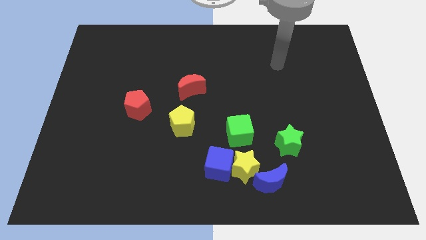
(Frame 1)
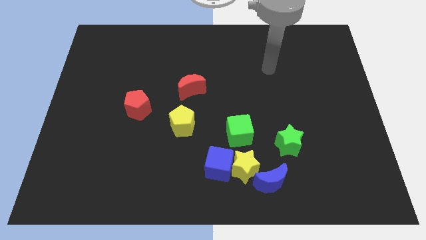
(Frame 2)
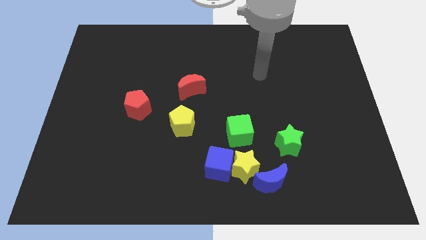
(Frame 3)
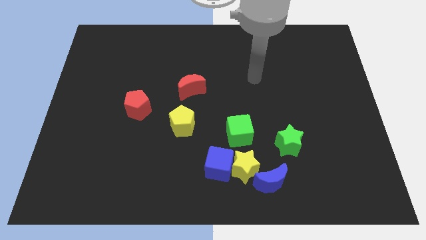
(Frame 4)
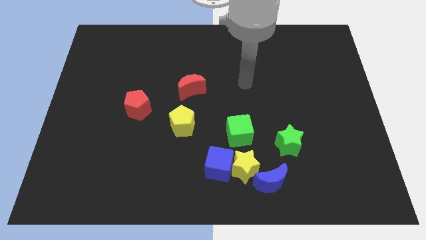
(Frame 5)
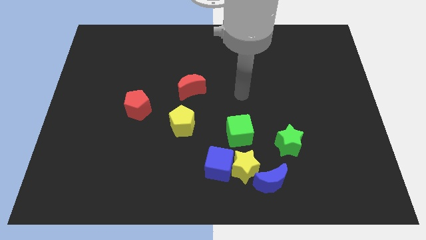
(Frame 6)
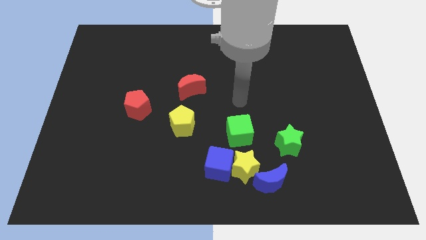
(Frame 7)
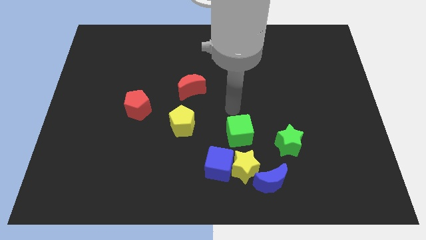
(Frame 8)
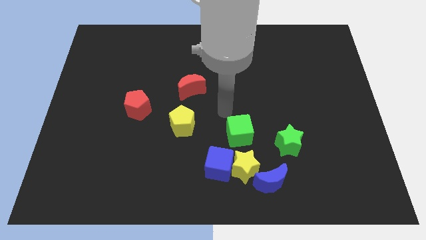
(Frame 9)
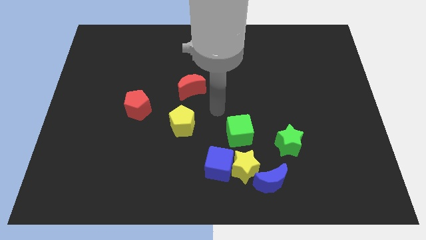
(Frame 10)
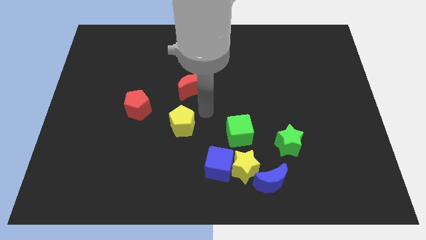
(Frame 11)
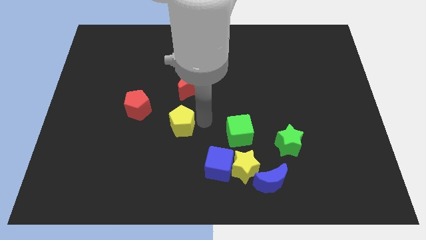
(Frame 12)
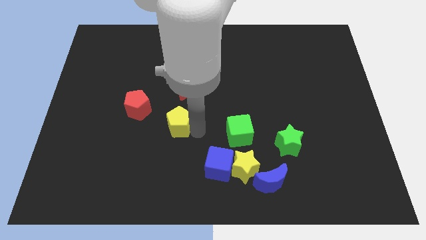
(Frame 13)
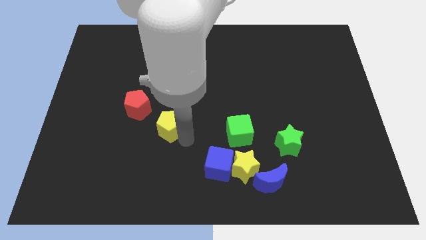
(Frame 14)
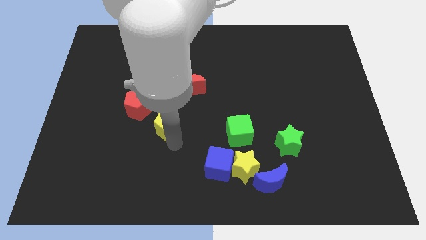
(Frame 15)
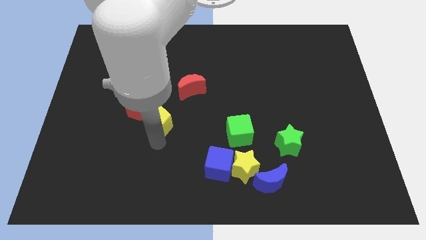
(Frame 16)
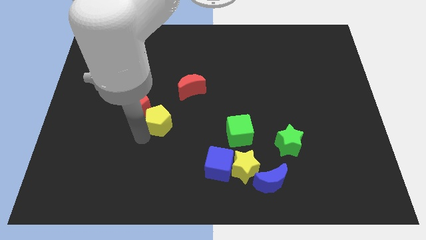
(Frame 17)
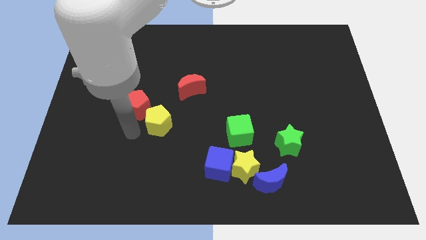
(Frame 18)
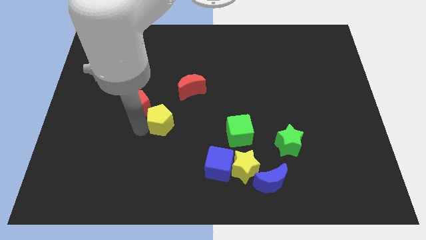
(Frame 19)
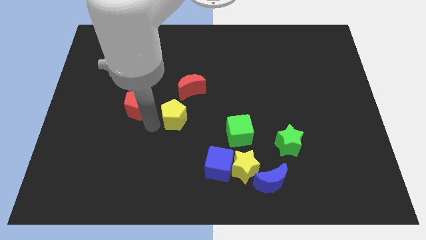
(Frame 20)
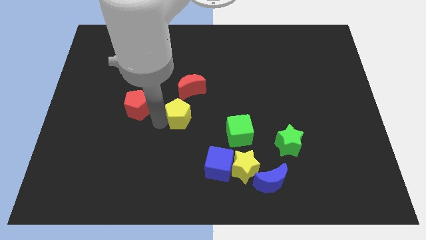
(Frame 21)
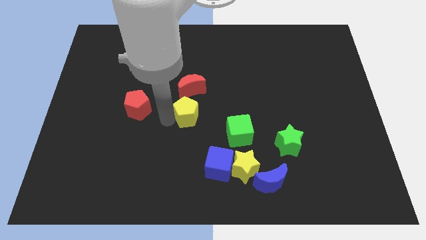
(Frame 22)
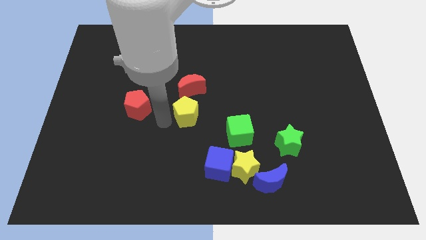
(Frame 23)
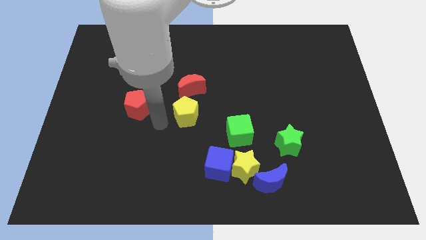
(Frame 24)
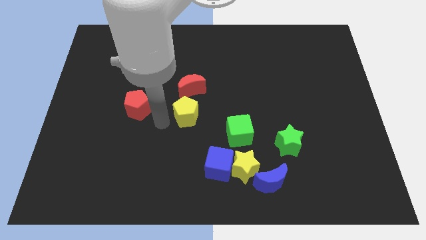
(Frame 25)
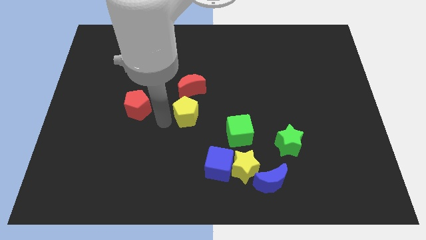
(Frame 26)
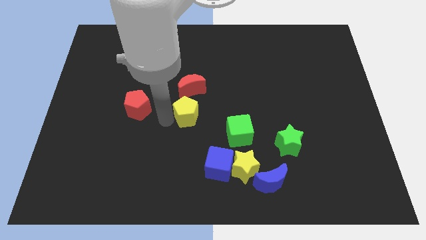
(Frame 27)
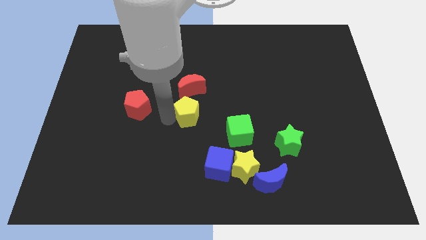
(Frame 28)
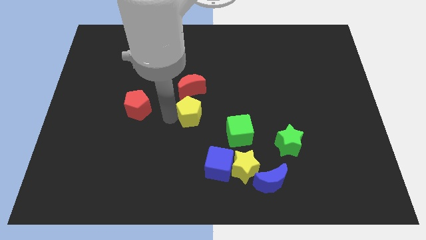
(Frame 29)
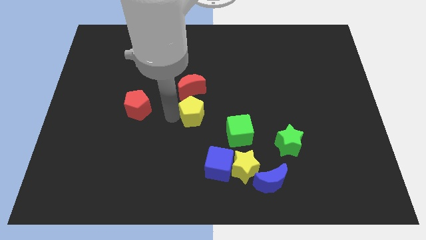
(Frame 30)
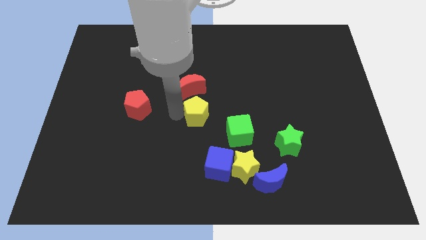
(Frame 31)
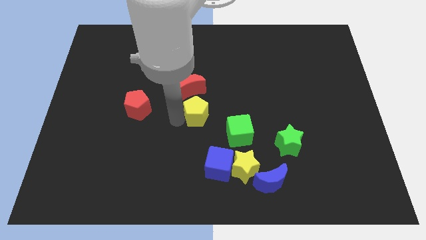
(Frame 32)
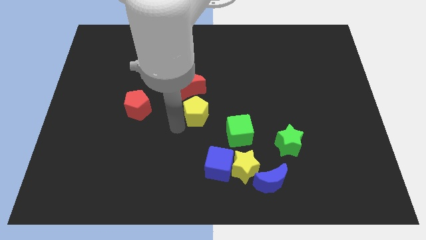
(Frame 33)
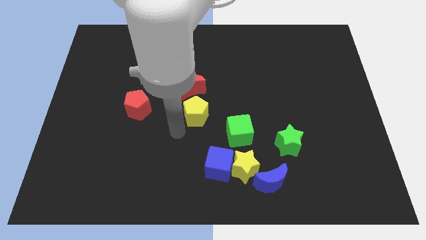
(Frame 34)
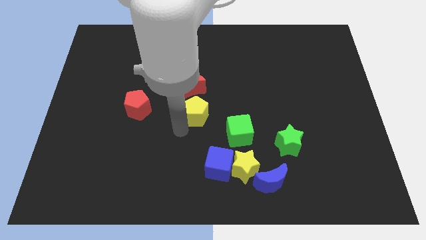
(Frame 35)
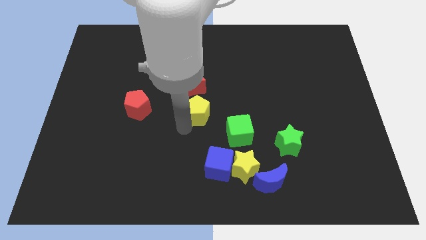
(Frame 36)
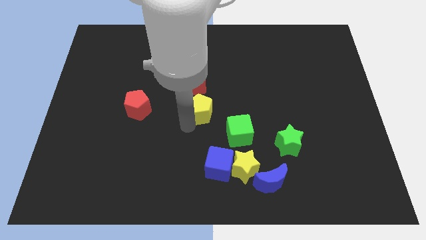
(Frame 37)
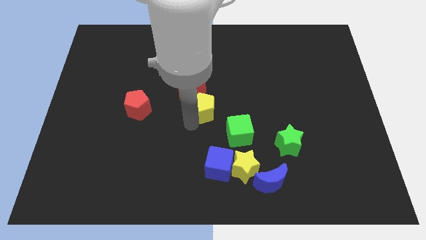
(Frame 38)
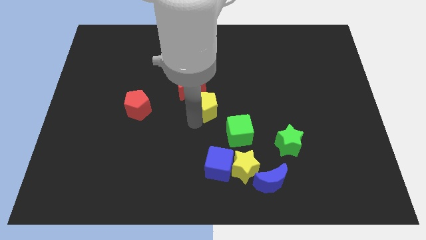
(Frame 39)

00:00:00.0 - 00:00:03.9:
slide the yellow pentagon a little bit up and right diagonally

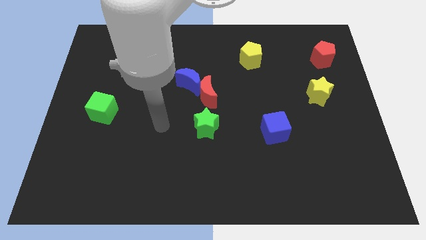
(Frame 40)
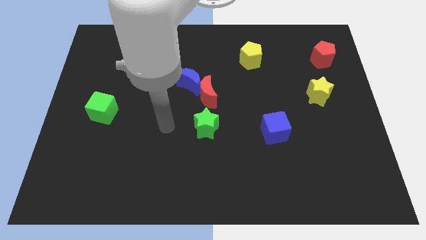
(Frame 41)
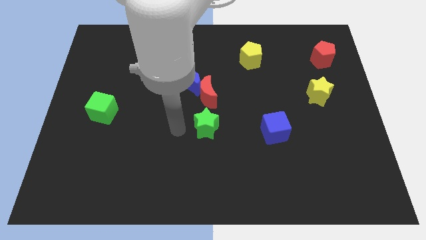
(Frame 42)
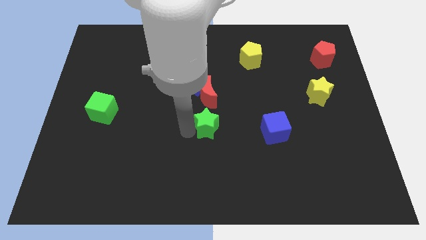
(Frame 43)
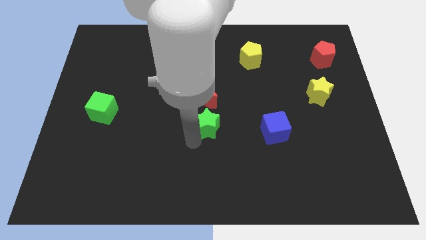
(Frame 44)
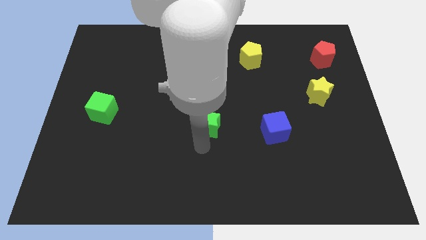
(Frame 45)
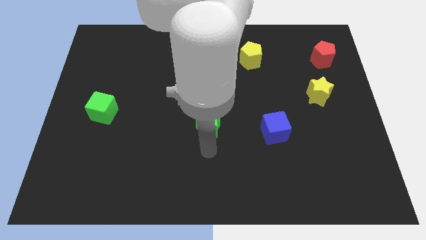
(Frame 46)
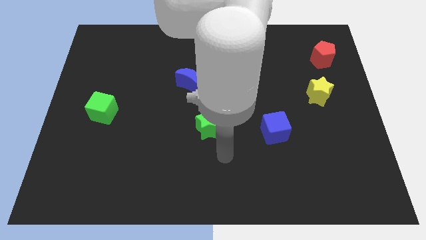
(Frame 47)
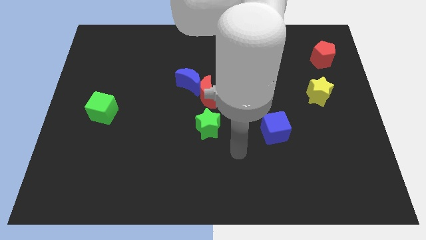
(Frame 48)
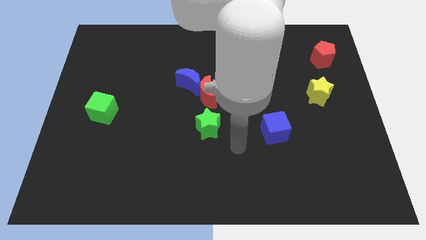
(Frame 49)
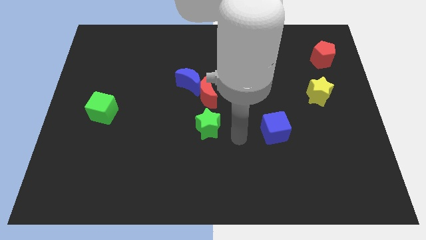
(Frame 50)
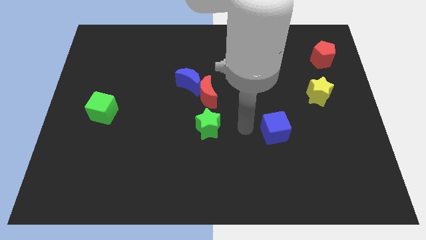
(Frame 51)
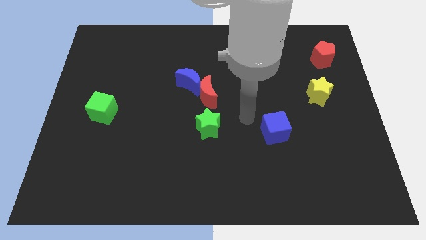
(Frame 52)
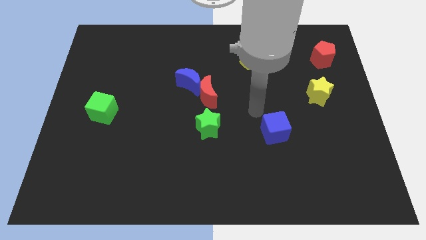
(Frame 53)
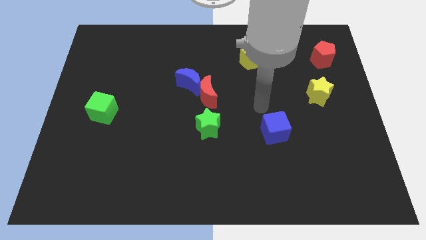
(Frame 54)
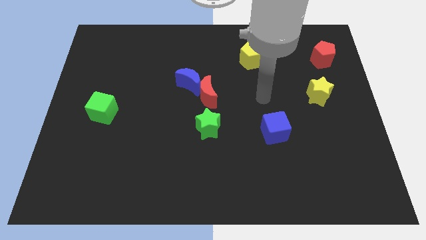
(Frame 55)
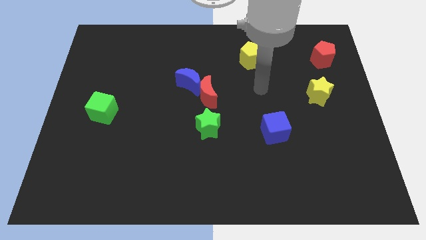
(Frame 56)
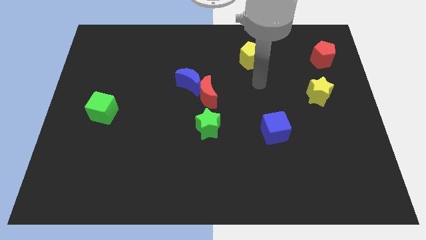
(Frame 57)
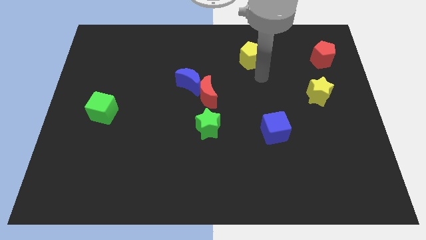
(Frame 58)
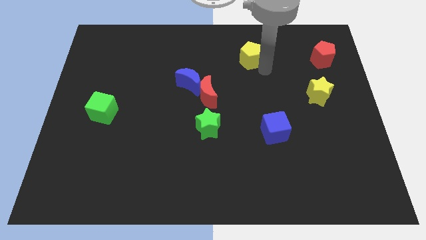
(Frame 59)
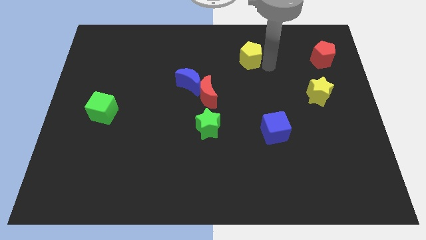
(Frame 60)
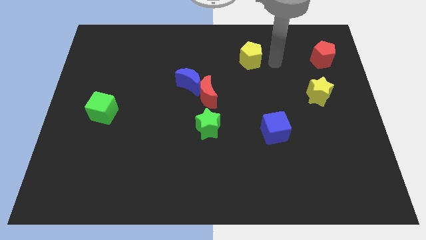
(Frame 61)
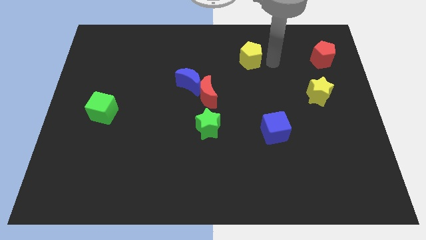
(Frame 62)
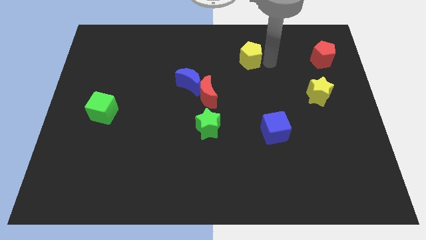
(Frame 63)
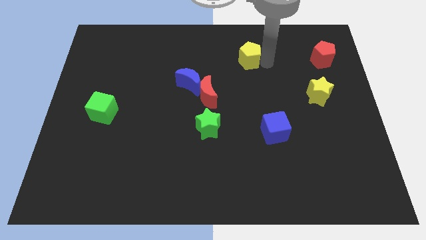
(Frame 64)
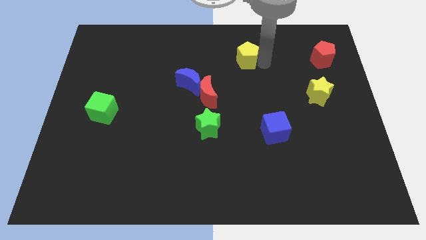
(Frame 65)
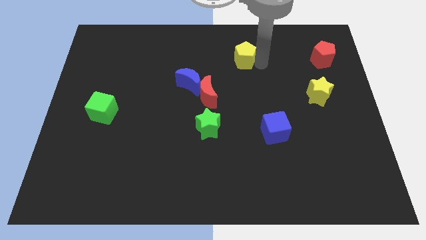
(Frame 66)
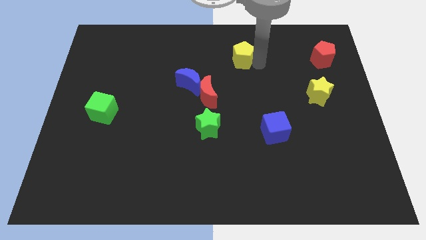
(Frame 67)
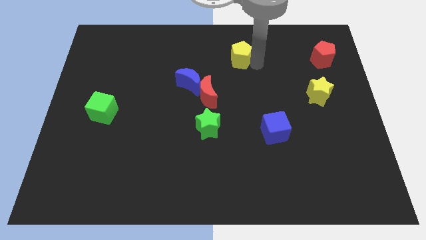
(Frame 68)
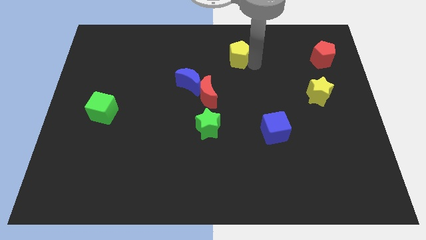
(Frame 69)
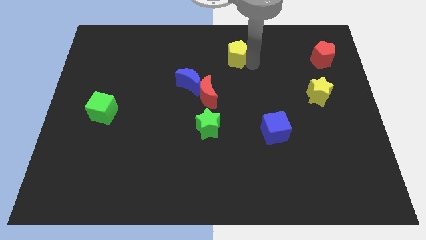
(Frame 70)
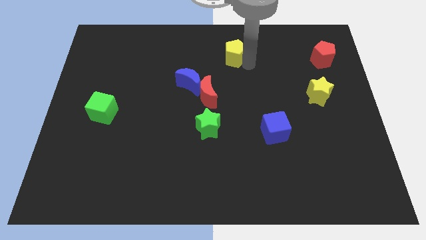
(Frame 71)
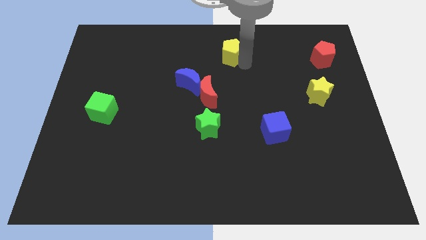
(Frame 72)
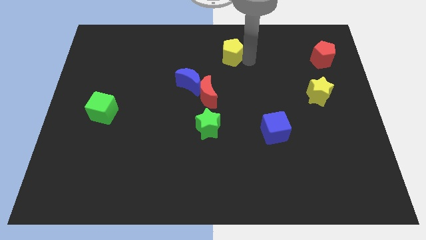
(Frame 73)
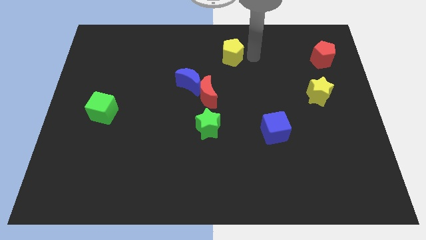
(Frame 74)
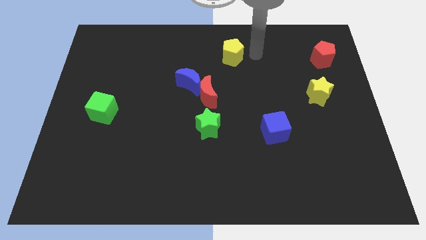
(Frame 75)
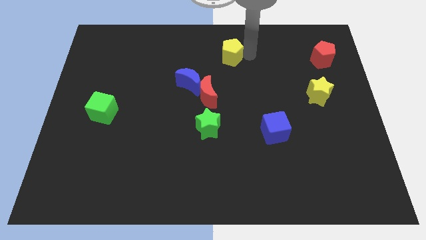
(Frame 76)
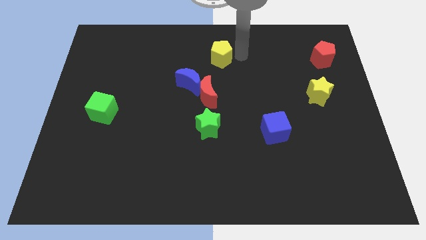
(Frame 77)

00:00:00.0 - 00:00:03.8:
move the yellow pentagon slightly left

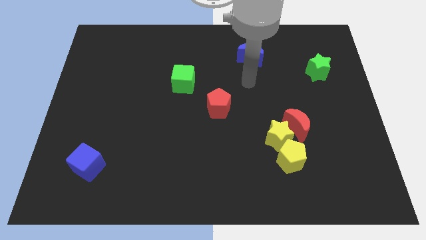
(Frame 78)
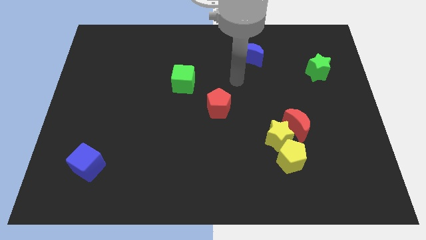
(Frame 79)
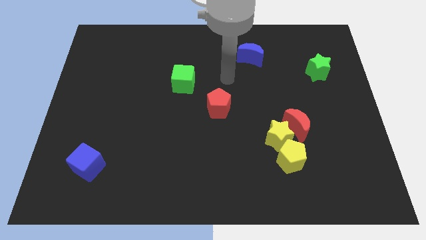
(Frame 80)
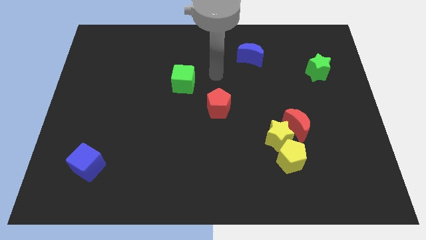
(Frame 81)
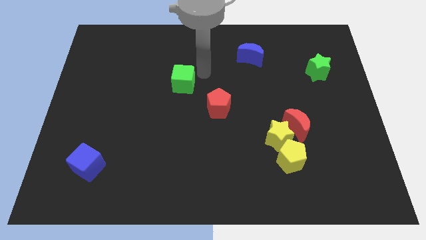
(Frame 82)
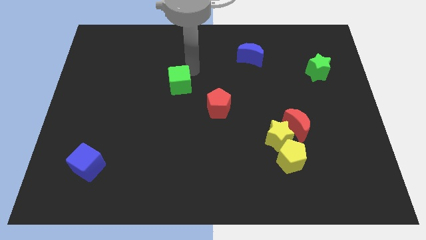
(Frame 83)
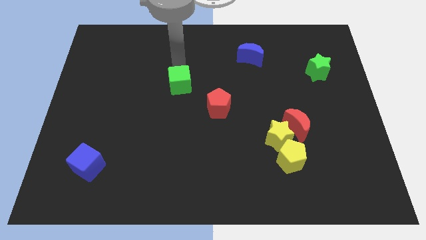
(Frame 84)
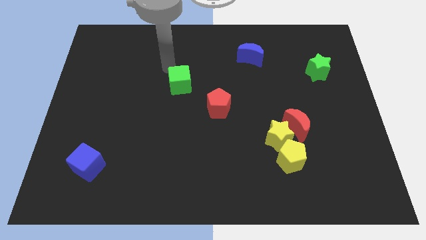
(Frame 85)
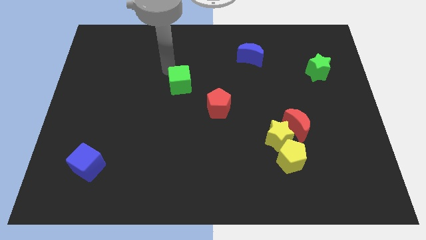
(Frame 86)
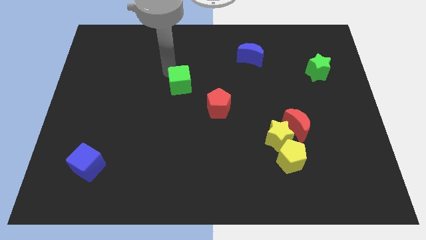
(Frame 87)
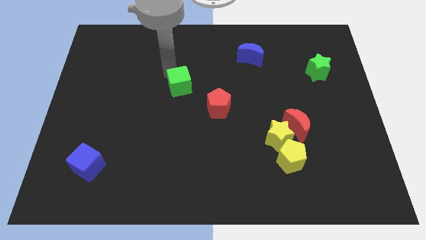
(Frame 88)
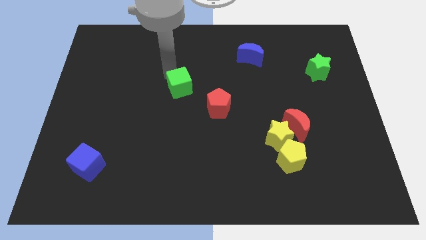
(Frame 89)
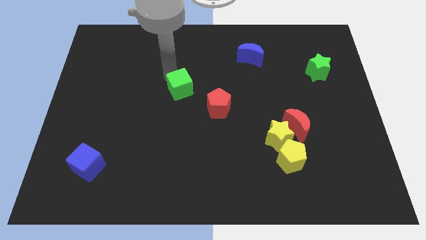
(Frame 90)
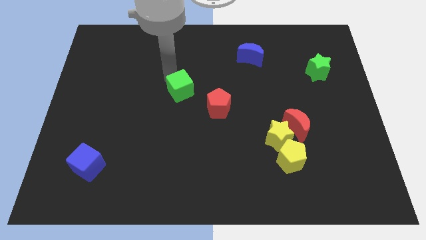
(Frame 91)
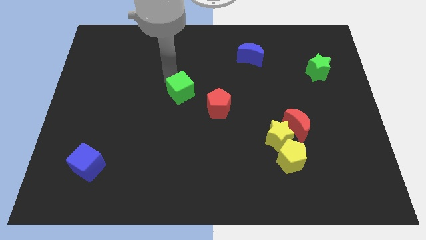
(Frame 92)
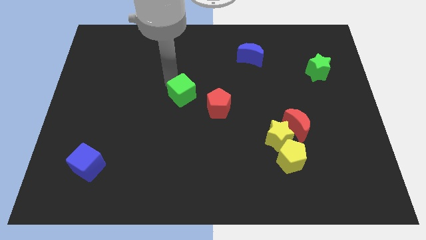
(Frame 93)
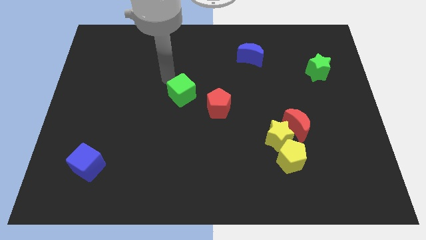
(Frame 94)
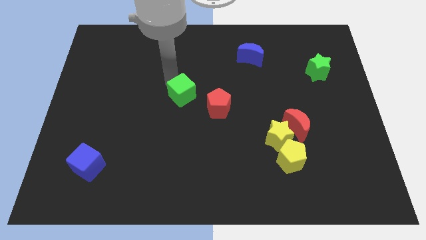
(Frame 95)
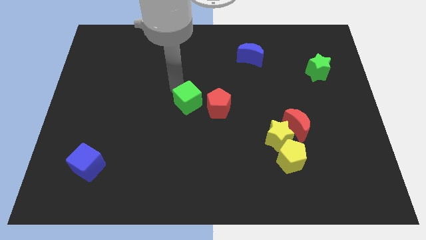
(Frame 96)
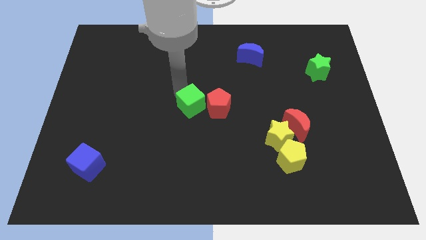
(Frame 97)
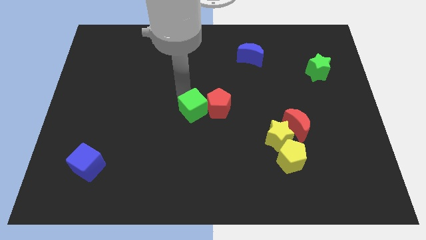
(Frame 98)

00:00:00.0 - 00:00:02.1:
slightly move the green cube down and to the right
